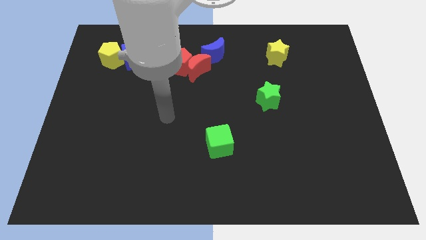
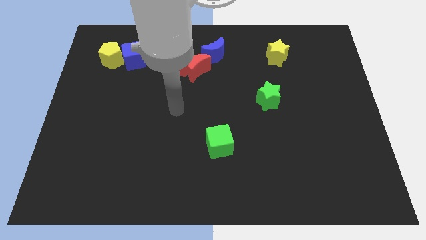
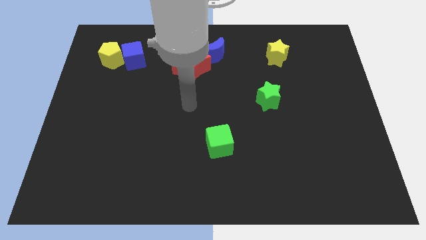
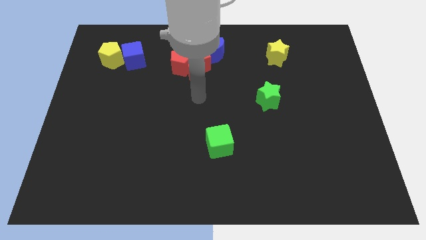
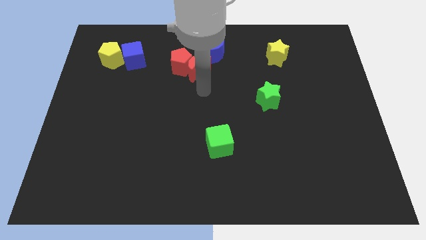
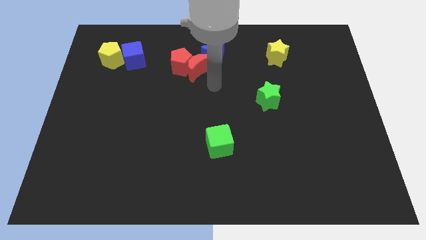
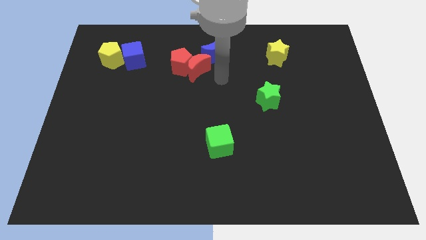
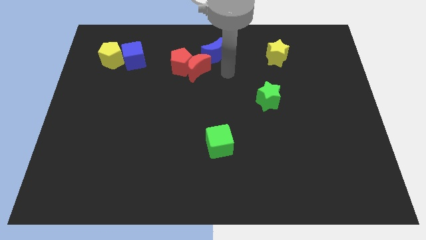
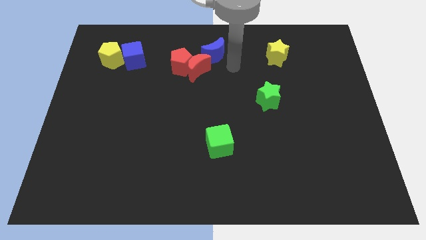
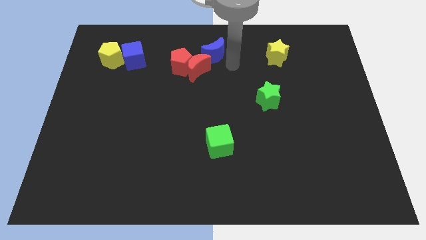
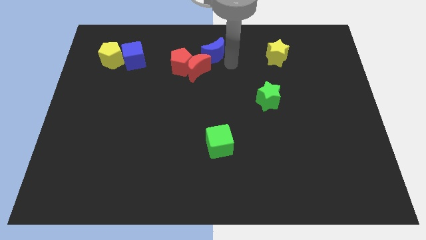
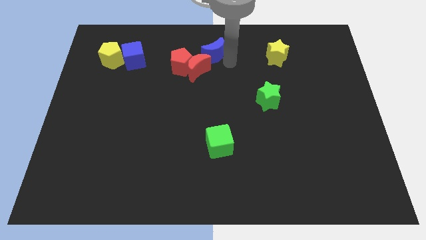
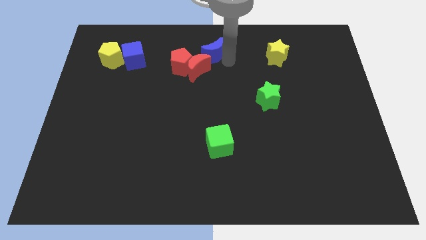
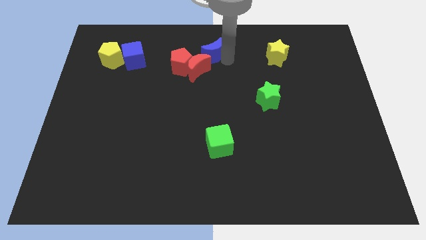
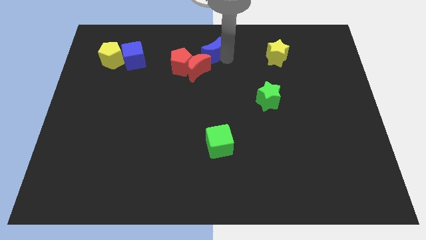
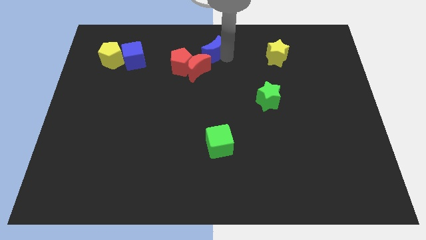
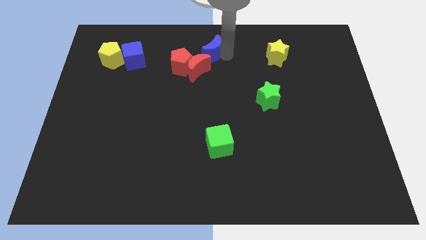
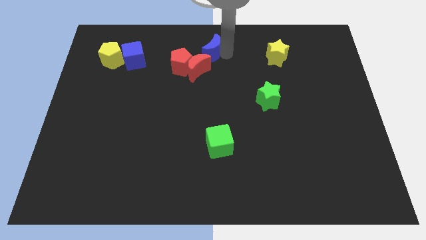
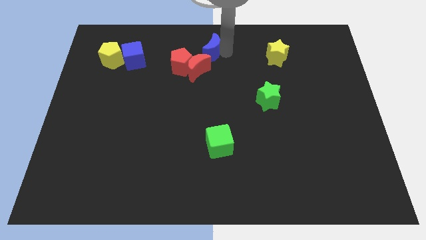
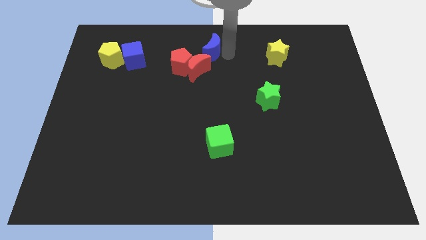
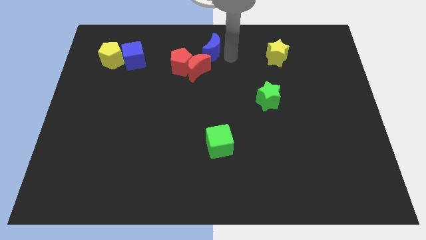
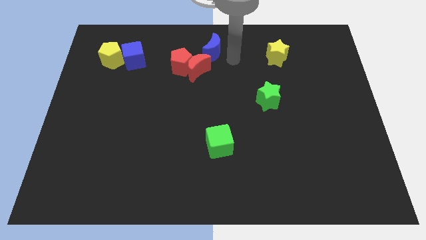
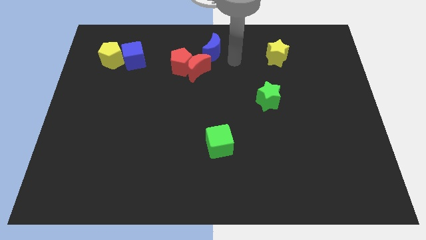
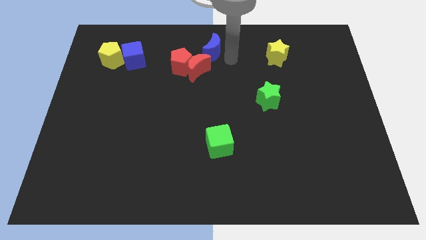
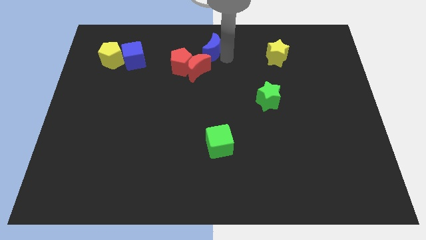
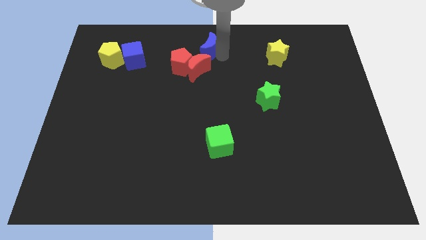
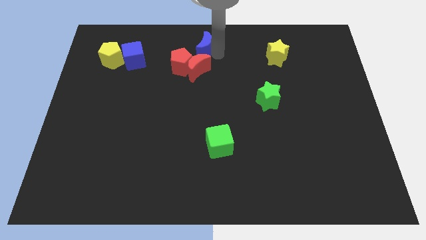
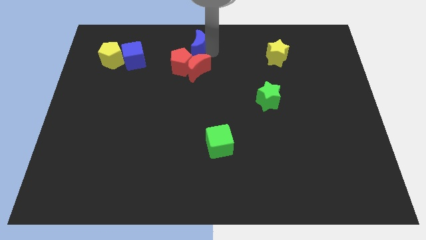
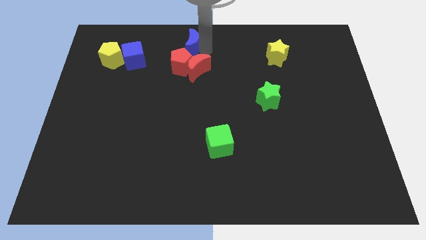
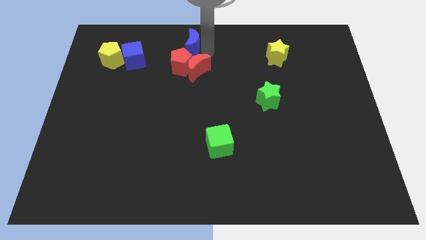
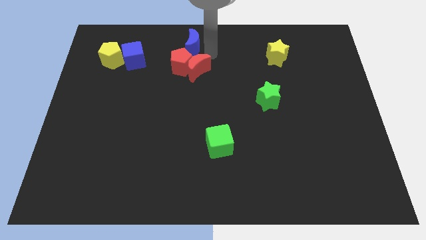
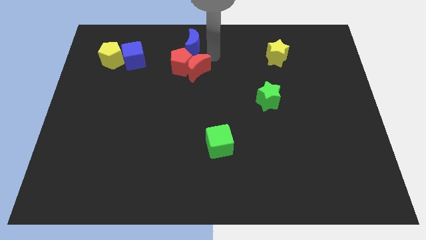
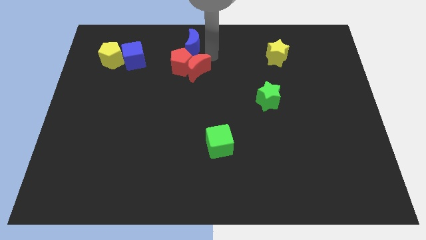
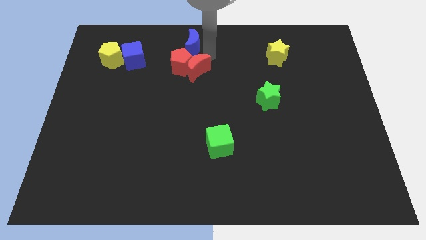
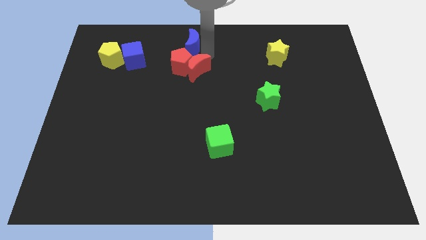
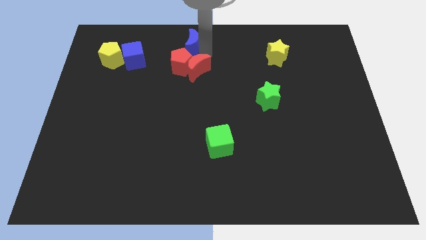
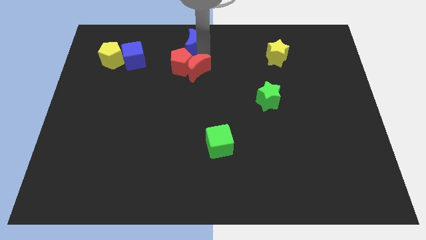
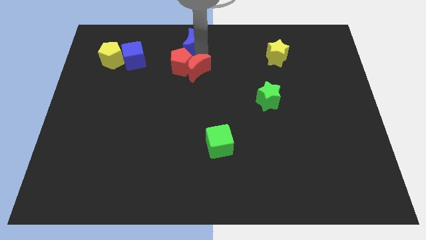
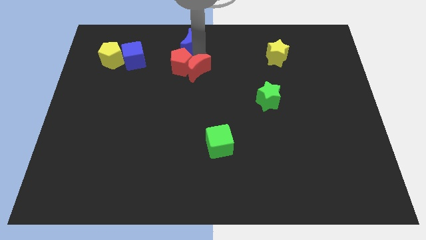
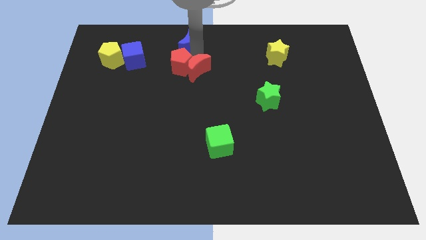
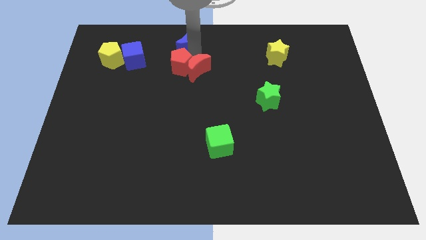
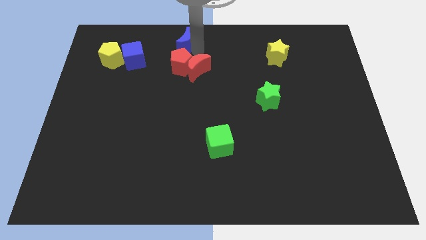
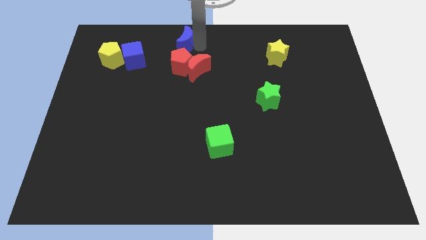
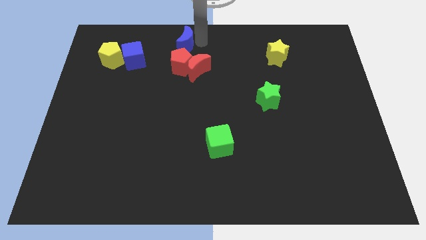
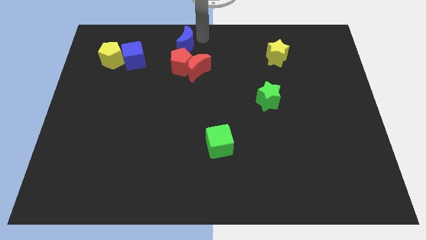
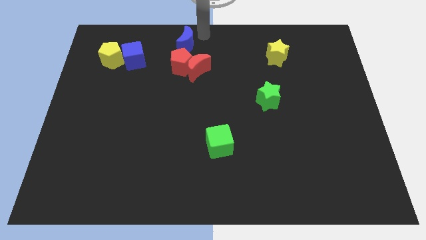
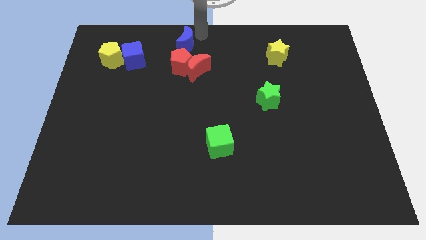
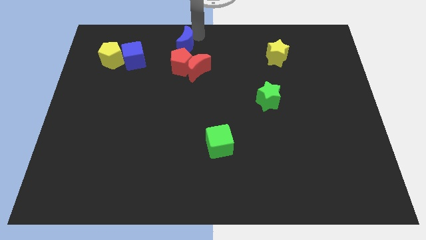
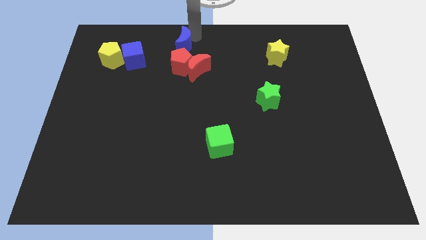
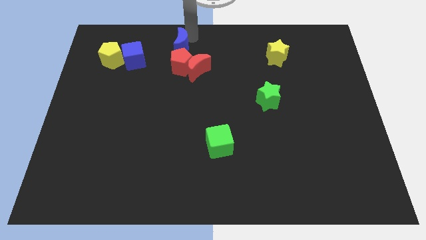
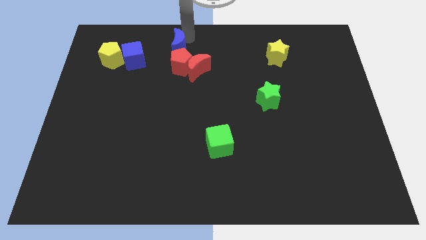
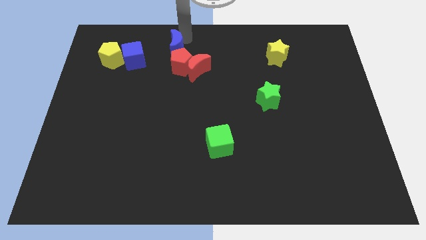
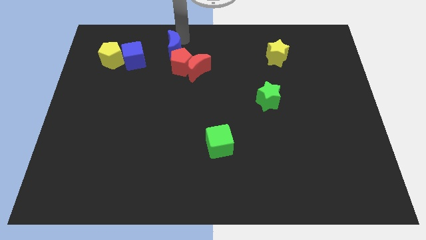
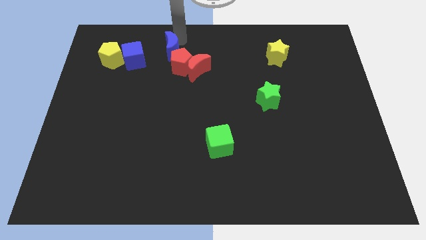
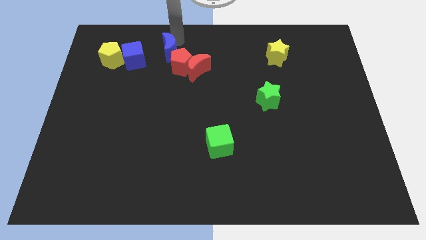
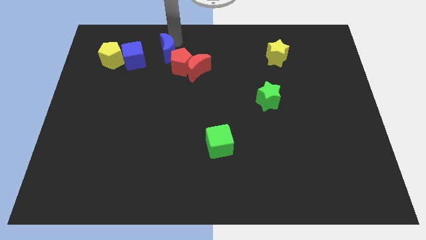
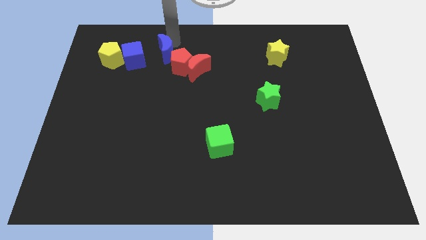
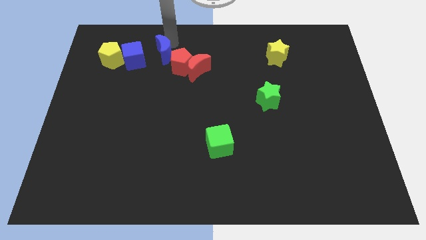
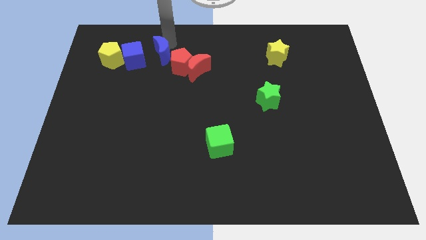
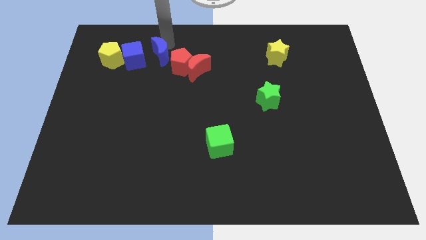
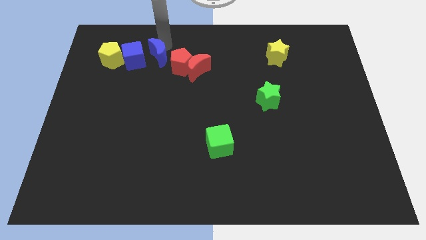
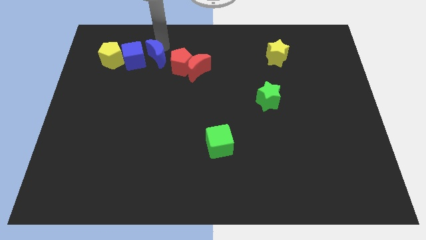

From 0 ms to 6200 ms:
push the blue moon diagonally down and to the right of the blue cube

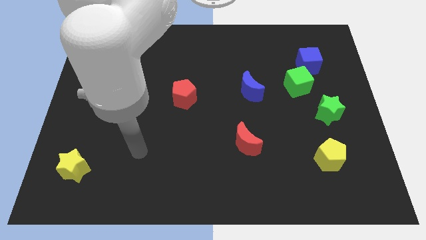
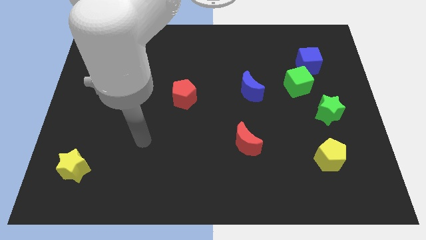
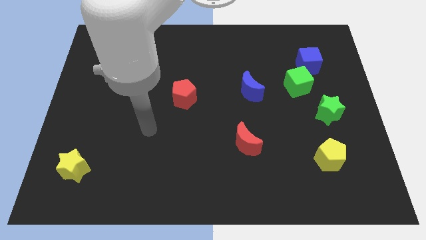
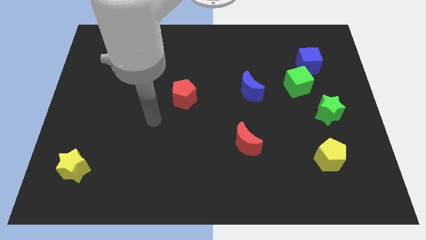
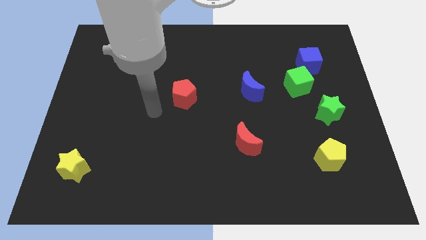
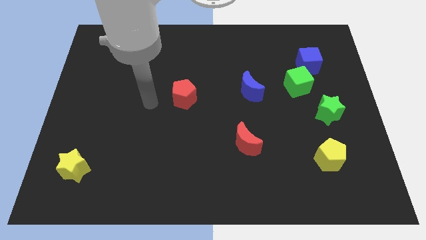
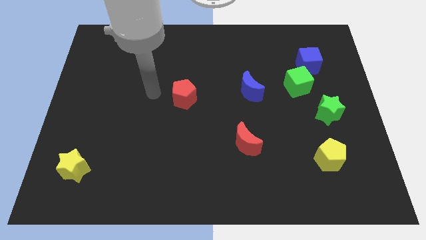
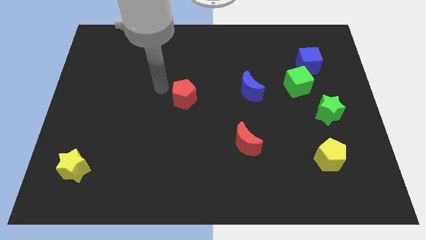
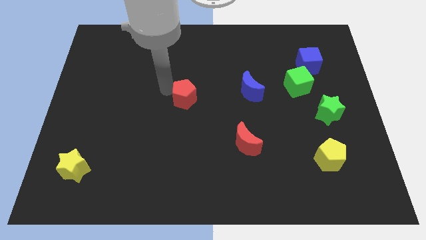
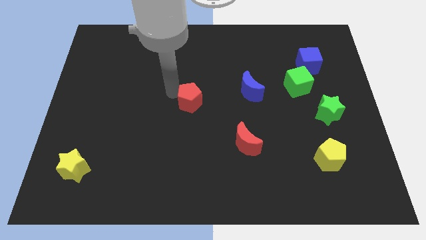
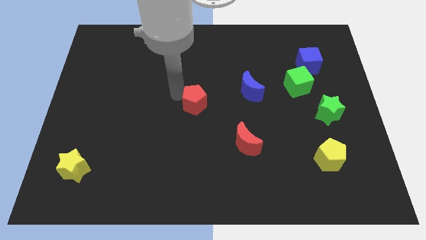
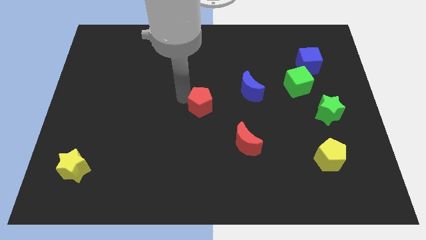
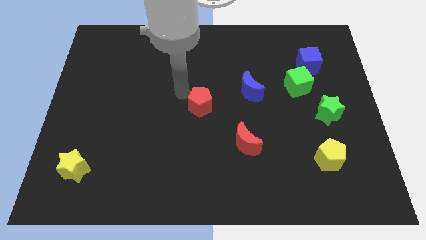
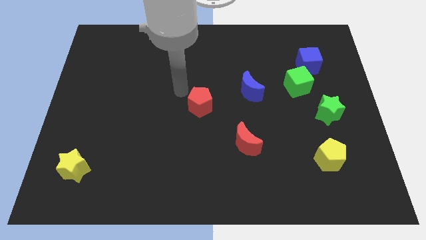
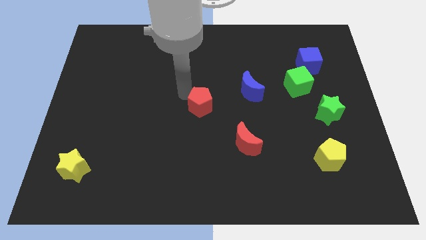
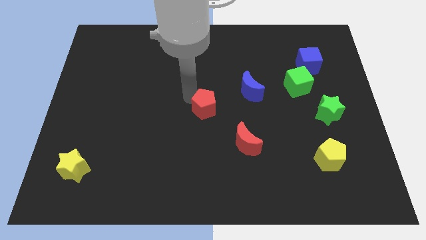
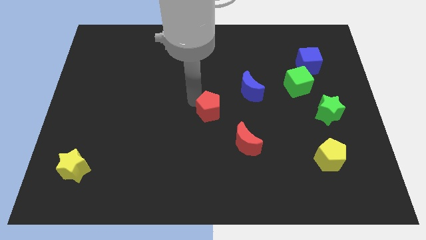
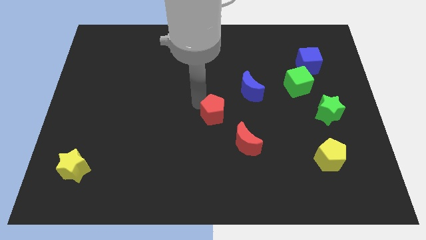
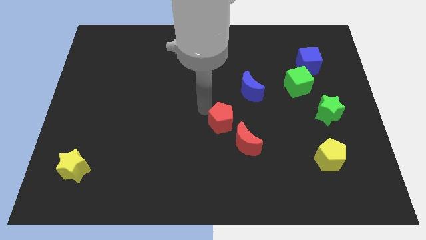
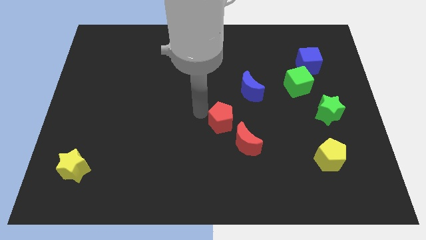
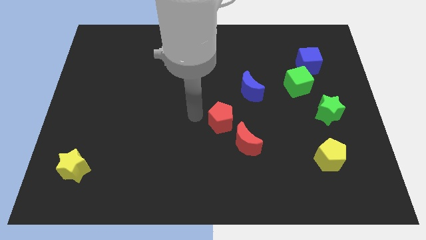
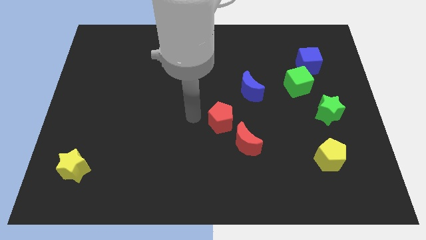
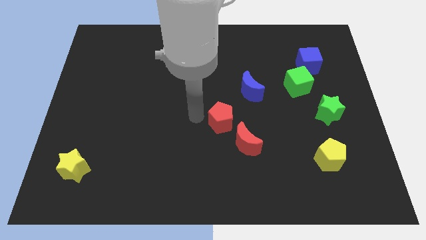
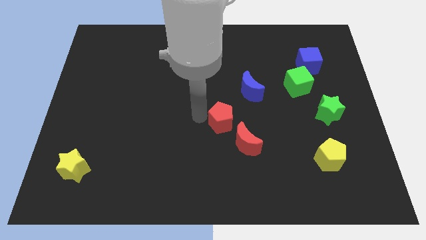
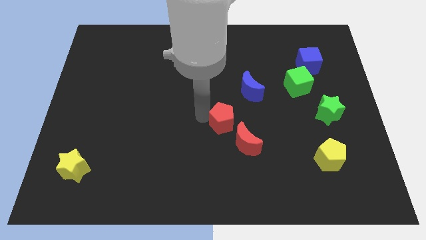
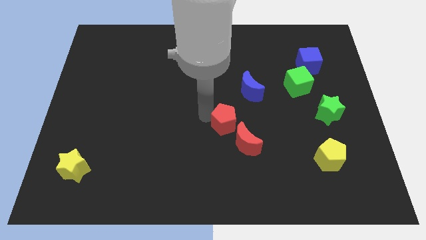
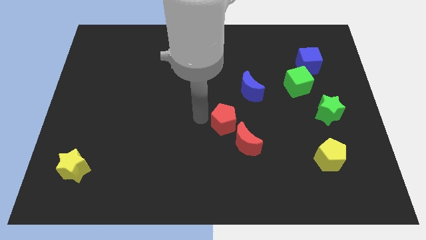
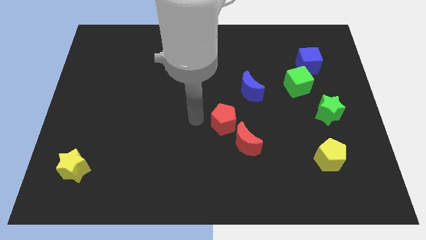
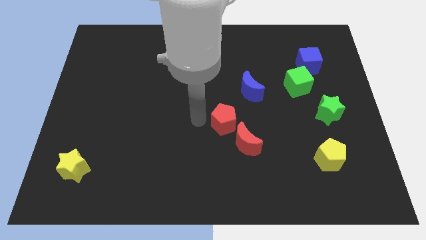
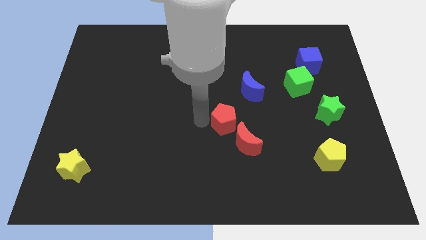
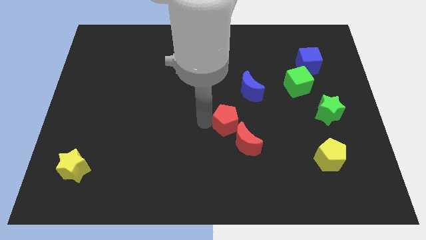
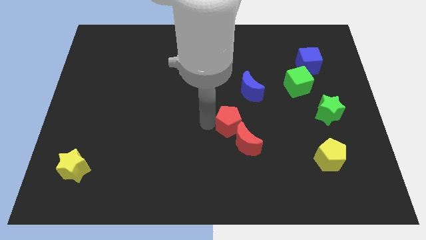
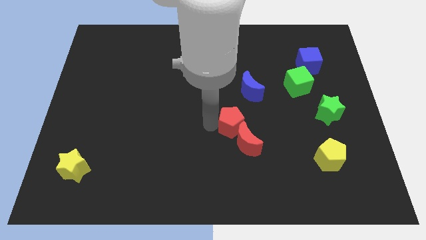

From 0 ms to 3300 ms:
move the red pentagon to the bottom of the blue moon
